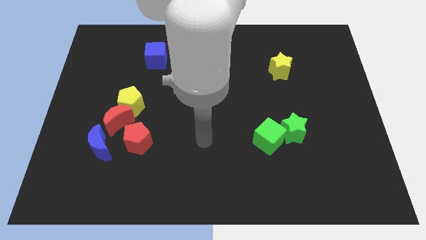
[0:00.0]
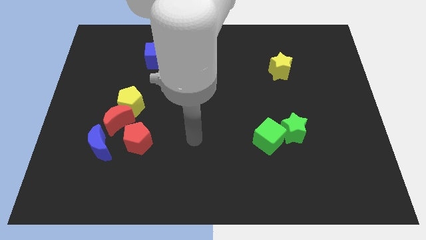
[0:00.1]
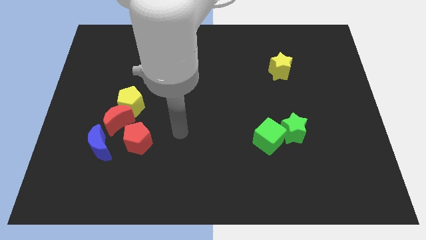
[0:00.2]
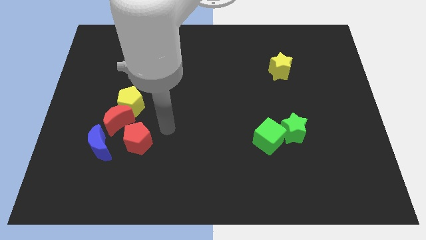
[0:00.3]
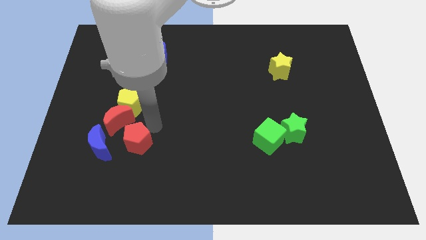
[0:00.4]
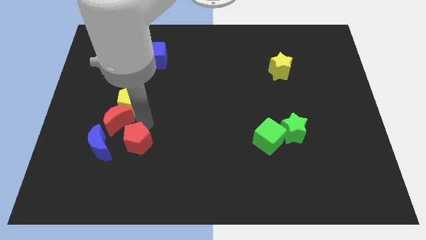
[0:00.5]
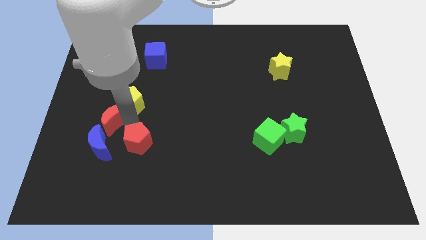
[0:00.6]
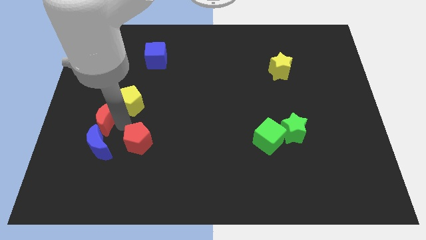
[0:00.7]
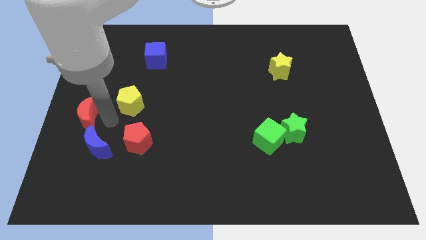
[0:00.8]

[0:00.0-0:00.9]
pull the yellow pentagon apart from the red moon

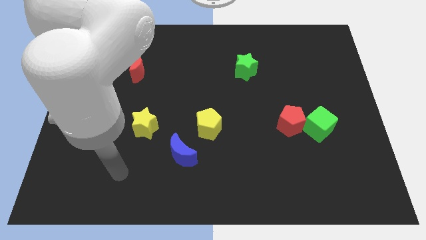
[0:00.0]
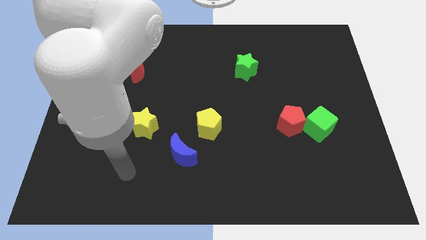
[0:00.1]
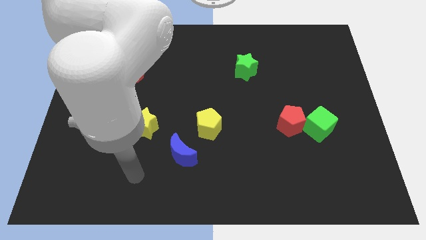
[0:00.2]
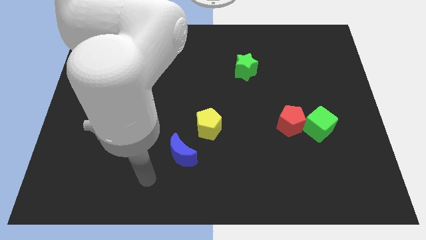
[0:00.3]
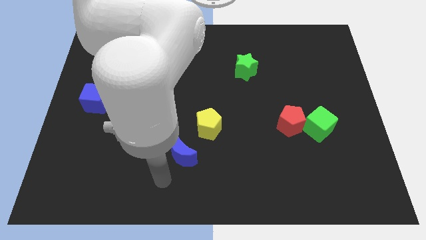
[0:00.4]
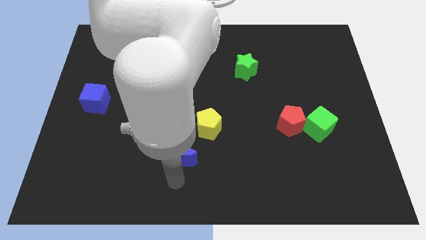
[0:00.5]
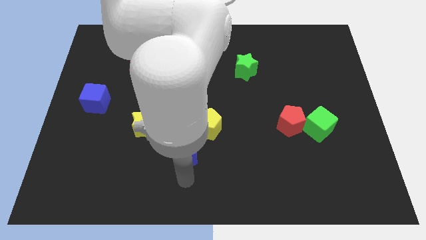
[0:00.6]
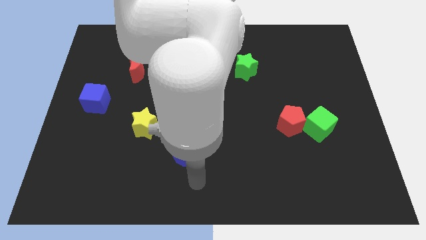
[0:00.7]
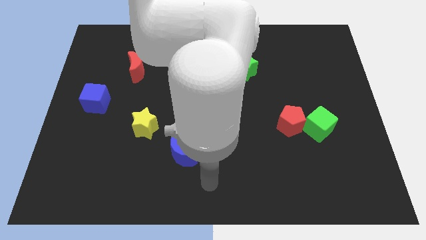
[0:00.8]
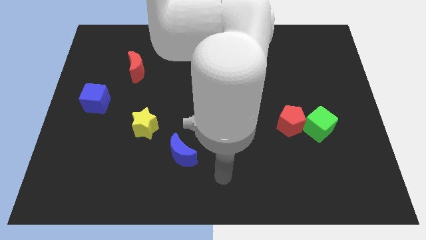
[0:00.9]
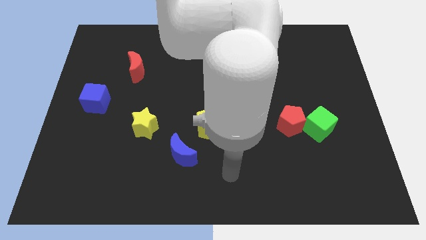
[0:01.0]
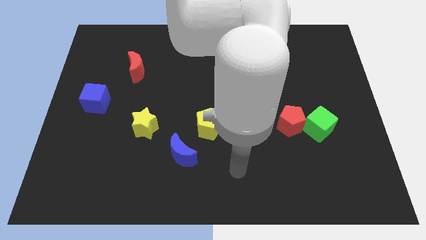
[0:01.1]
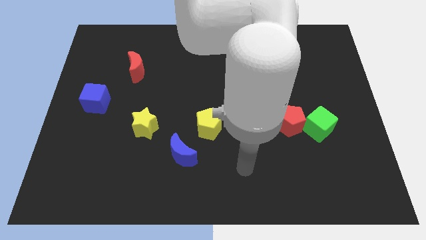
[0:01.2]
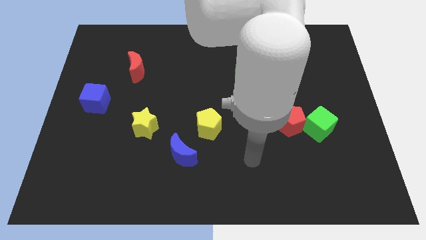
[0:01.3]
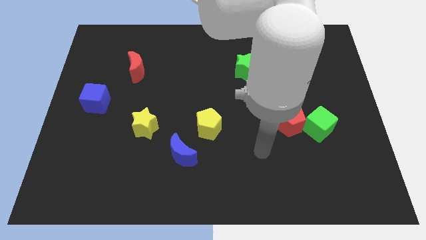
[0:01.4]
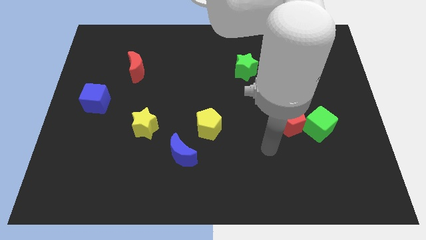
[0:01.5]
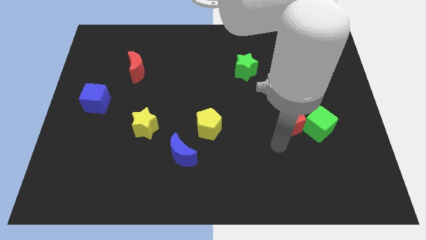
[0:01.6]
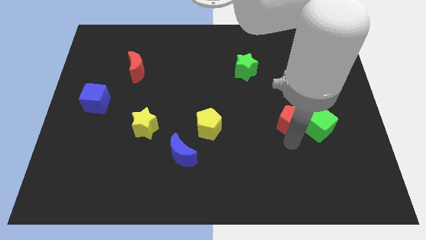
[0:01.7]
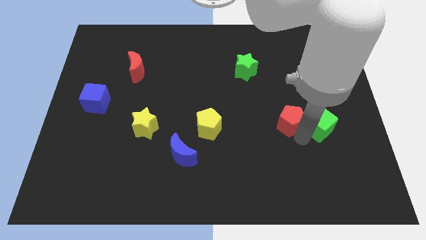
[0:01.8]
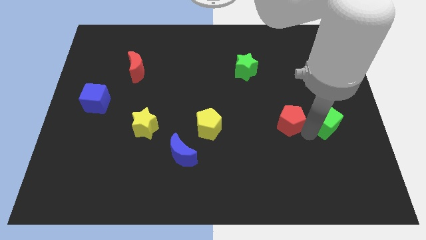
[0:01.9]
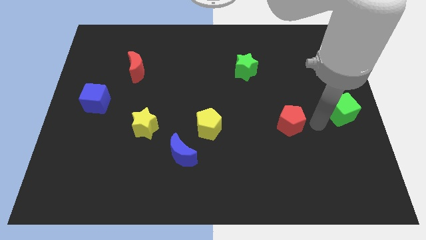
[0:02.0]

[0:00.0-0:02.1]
separate the red pentagon from the green cube

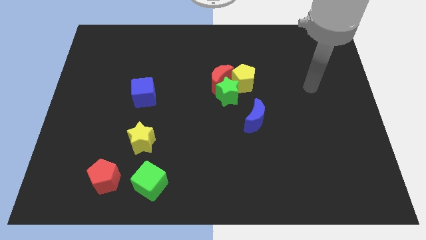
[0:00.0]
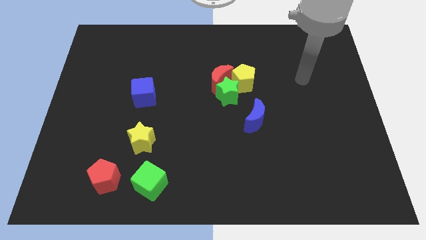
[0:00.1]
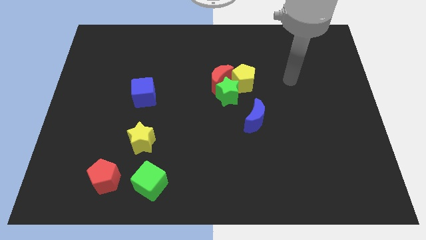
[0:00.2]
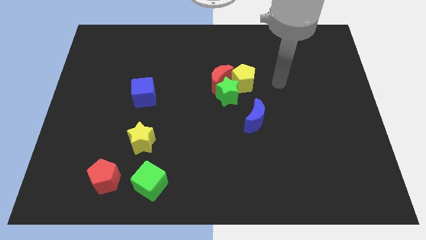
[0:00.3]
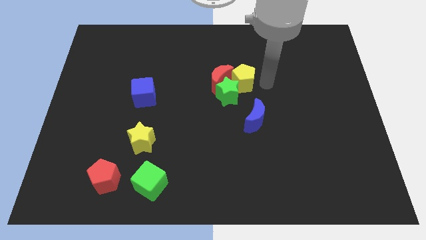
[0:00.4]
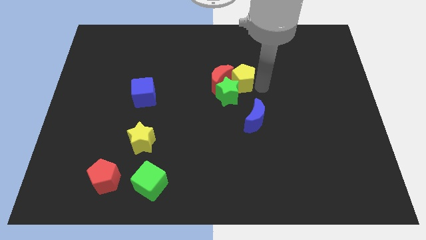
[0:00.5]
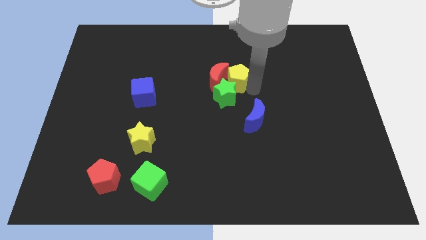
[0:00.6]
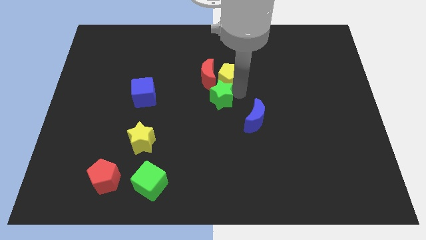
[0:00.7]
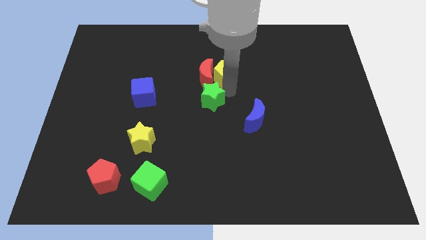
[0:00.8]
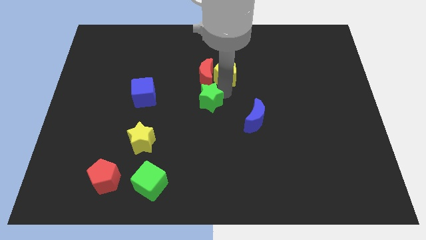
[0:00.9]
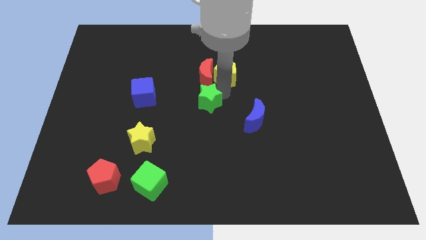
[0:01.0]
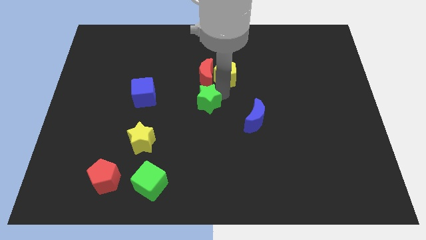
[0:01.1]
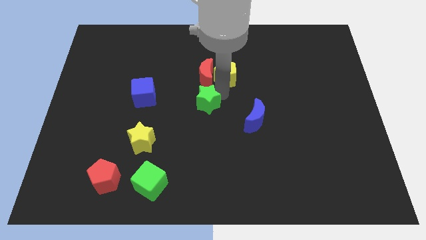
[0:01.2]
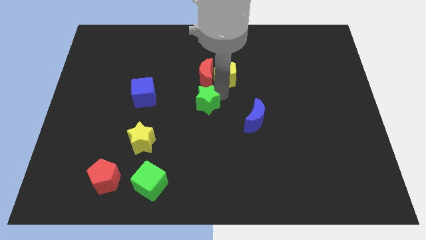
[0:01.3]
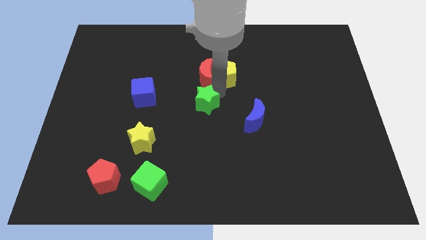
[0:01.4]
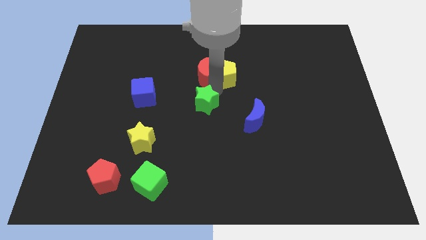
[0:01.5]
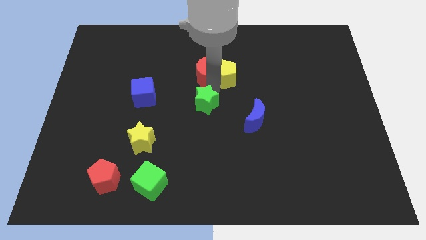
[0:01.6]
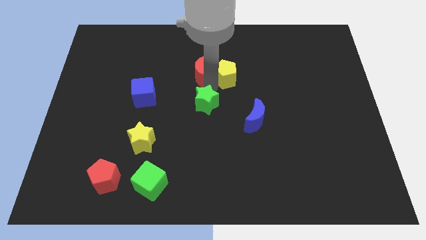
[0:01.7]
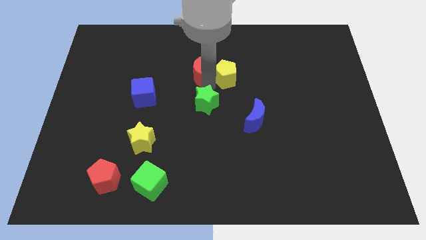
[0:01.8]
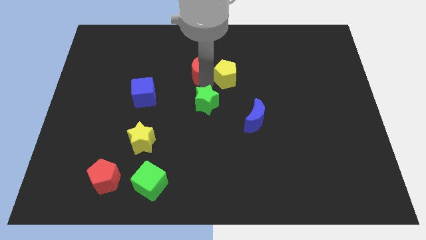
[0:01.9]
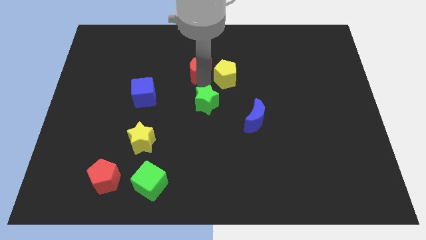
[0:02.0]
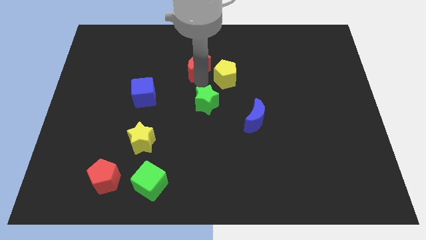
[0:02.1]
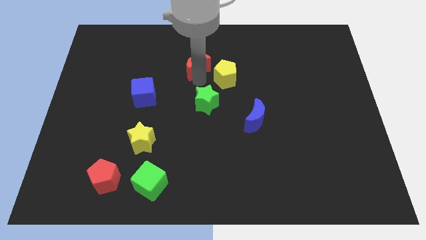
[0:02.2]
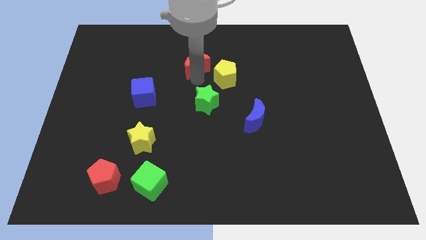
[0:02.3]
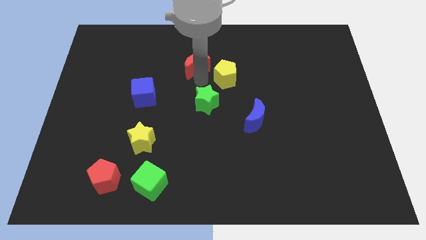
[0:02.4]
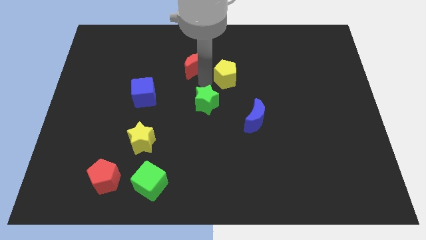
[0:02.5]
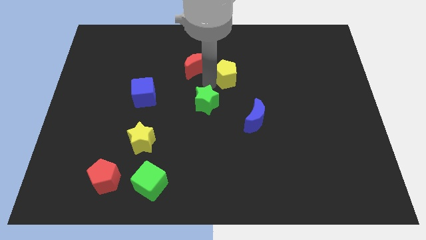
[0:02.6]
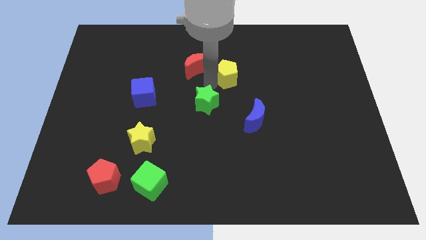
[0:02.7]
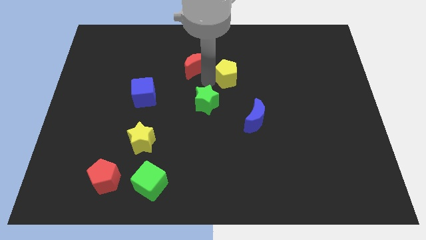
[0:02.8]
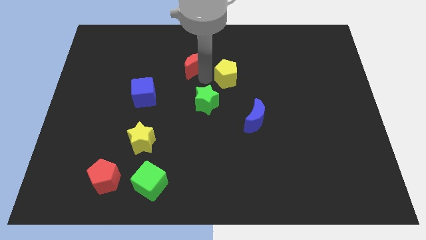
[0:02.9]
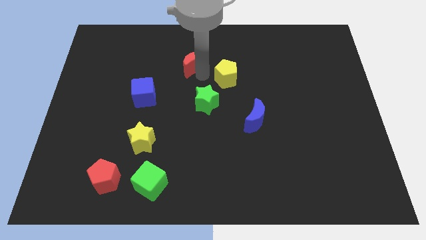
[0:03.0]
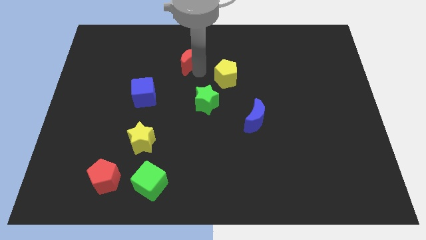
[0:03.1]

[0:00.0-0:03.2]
move the red moon away from the green star and yellow pentagon

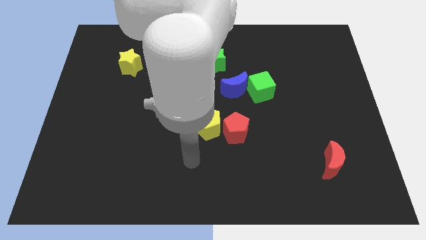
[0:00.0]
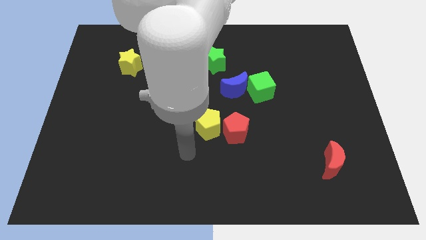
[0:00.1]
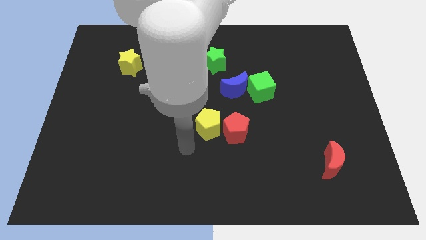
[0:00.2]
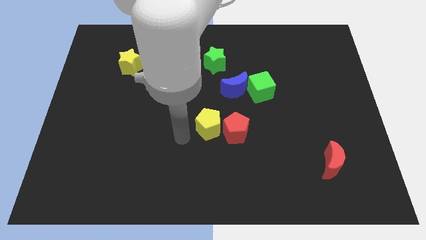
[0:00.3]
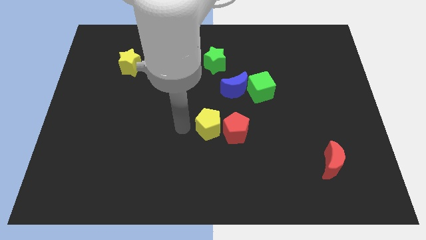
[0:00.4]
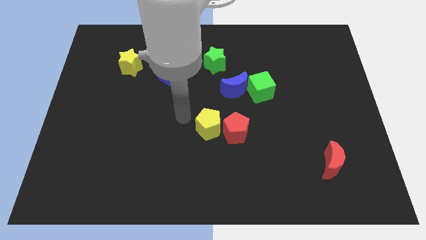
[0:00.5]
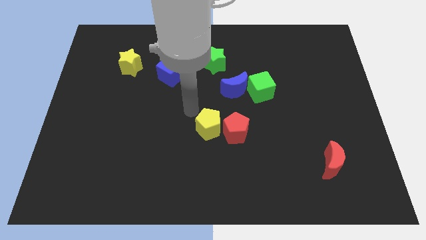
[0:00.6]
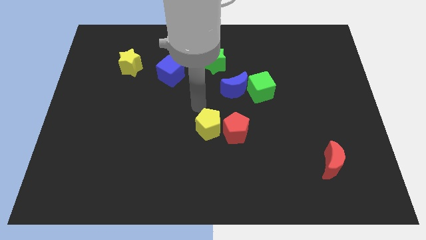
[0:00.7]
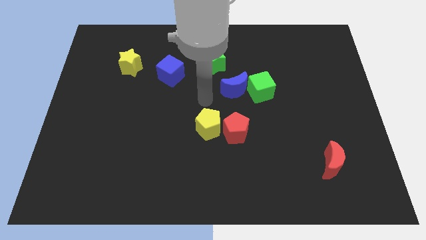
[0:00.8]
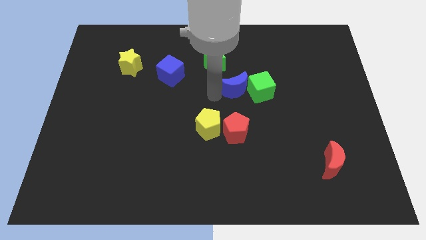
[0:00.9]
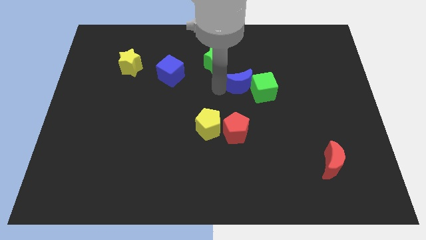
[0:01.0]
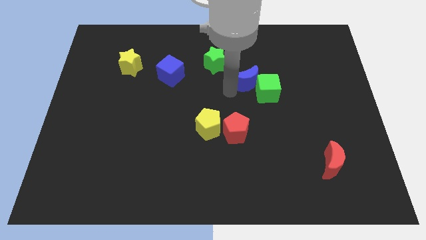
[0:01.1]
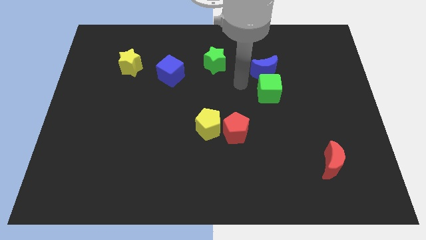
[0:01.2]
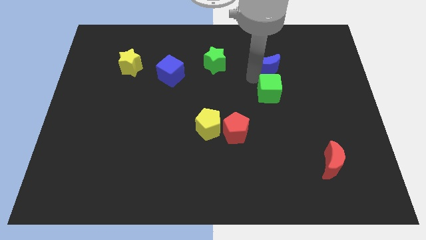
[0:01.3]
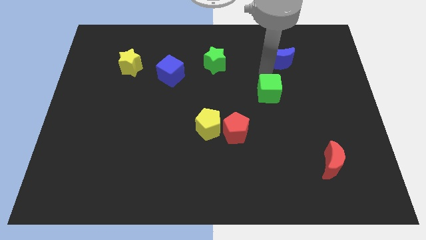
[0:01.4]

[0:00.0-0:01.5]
move the green cube away from the blue moon

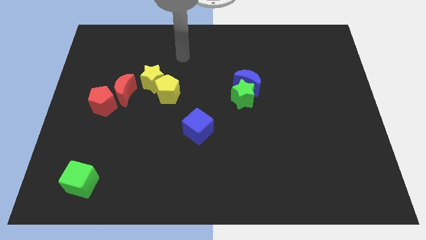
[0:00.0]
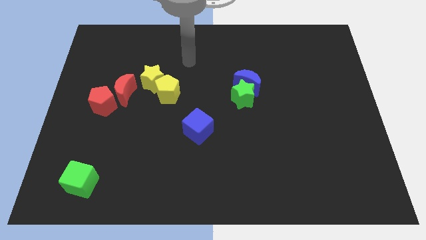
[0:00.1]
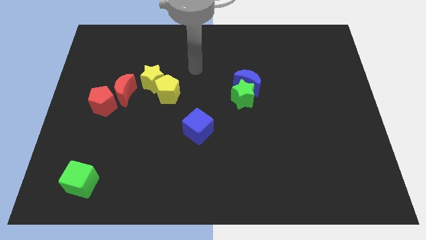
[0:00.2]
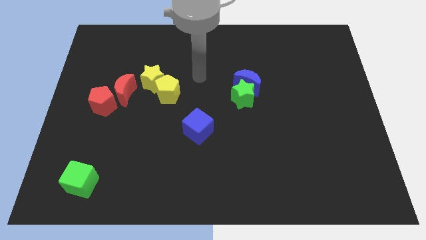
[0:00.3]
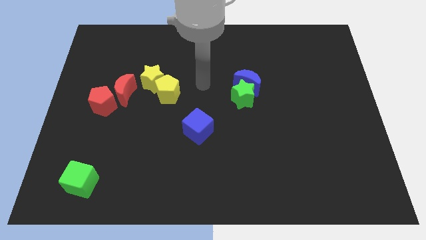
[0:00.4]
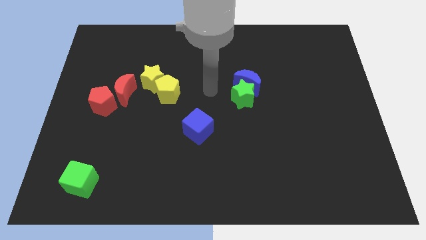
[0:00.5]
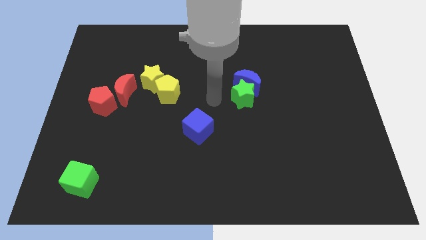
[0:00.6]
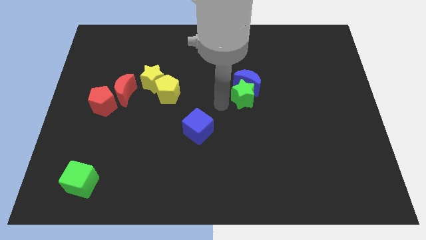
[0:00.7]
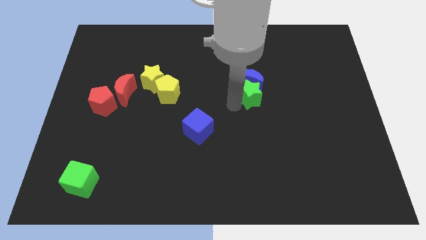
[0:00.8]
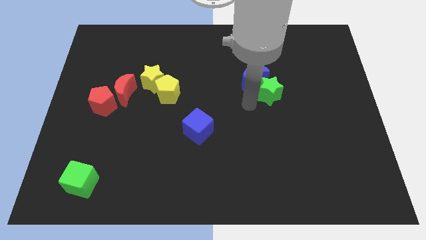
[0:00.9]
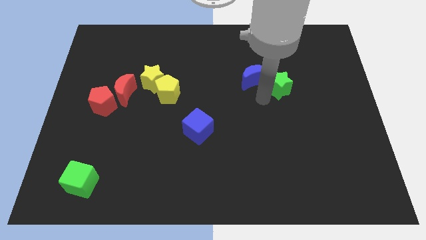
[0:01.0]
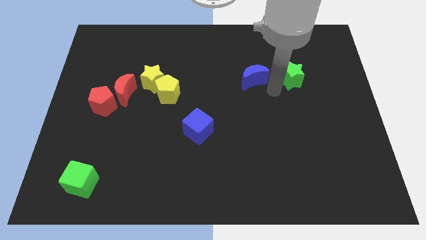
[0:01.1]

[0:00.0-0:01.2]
pull the blue moon apart from the green star

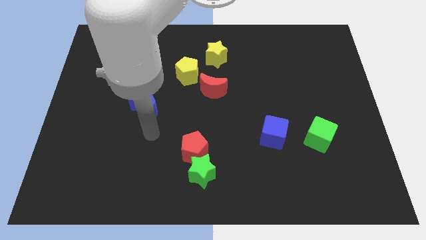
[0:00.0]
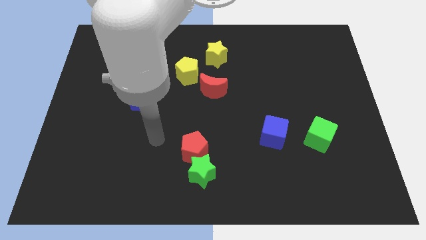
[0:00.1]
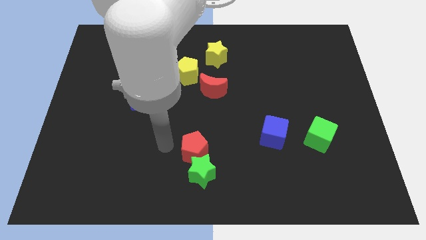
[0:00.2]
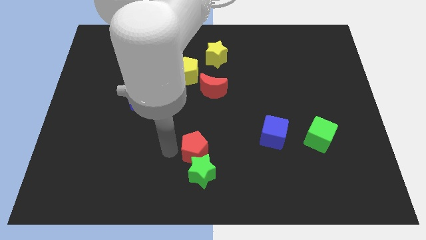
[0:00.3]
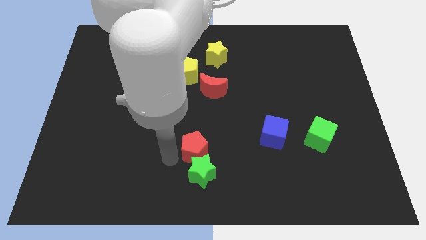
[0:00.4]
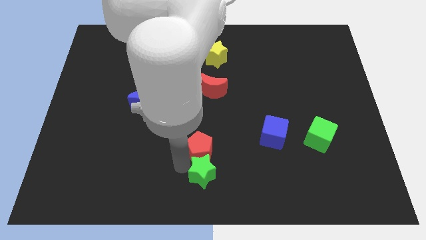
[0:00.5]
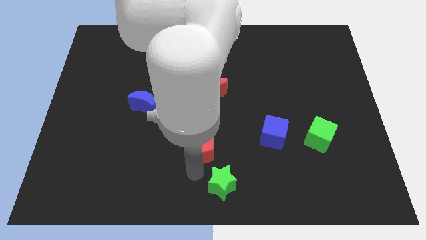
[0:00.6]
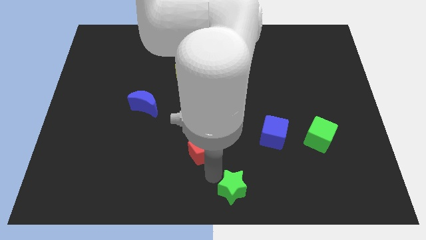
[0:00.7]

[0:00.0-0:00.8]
pull the red pentagon apart from the green star
